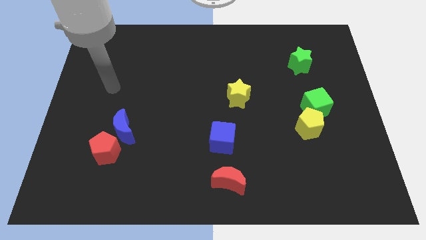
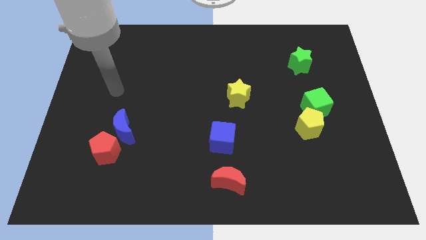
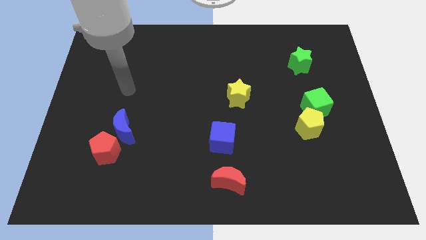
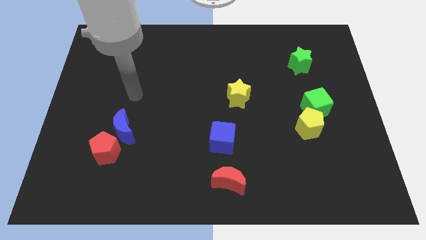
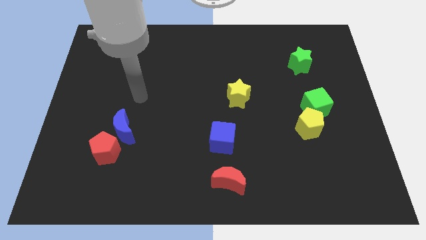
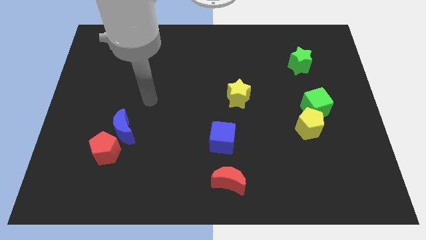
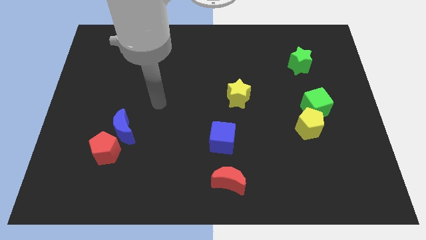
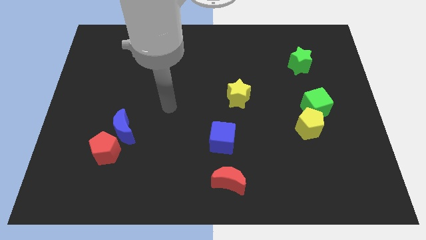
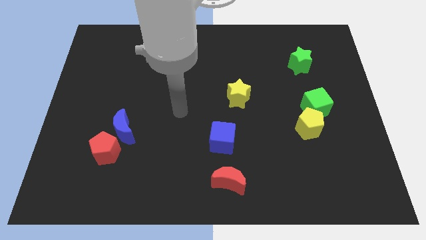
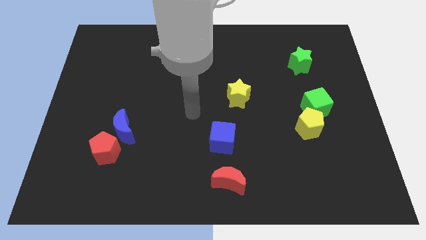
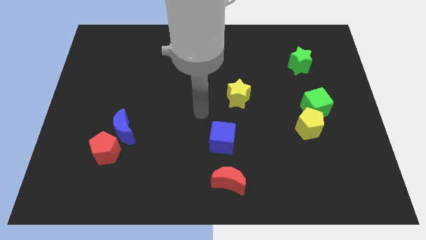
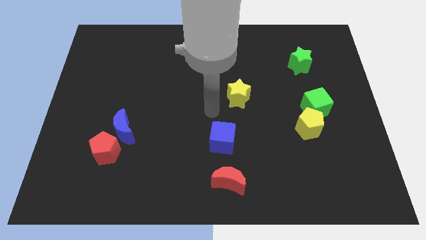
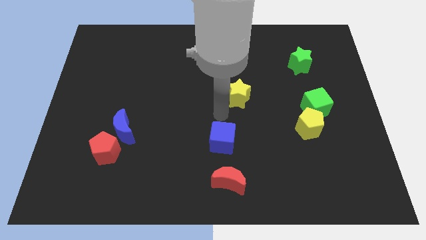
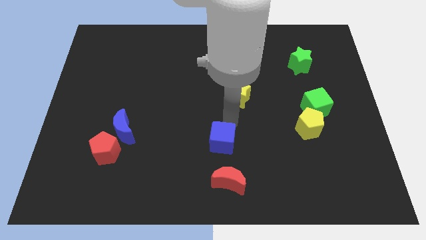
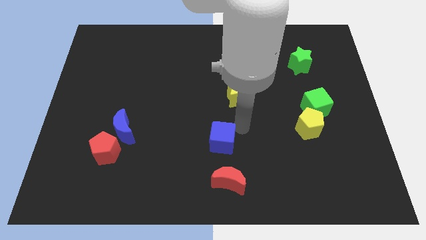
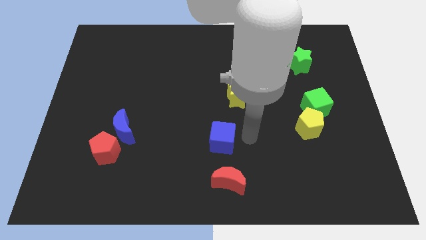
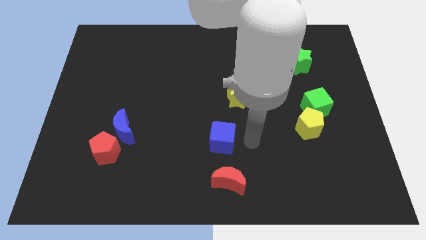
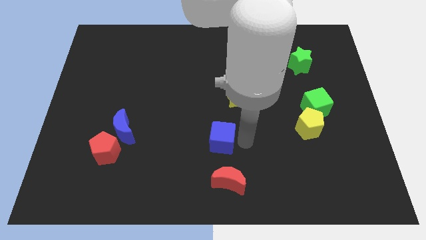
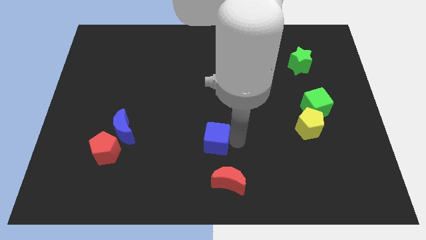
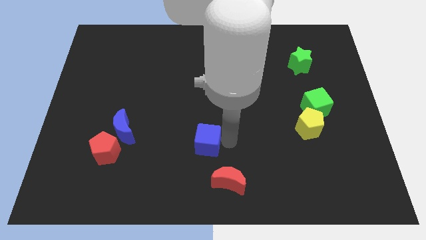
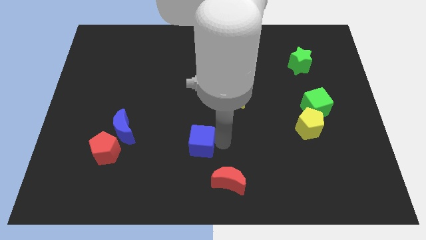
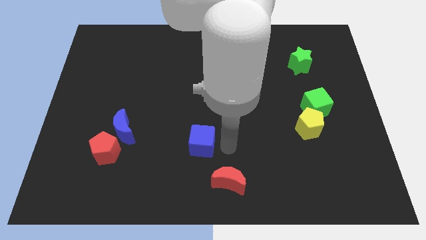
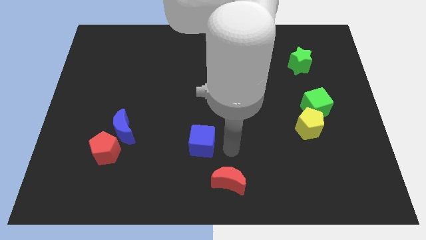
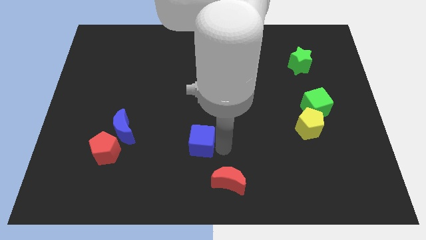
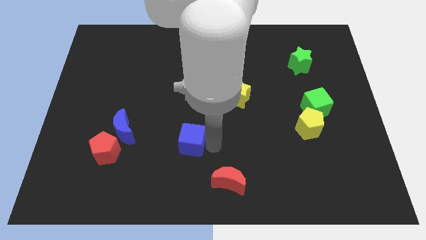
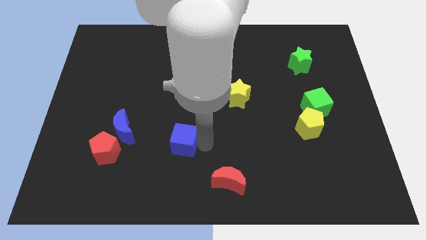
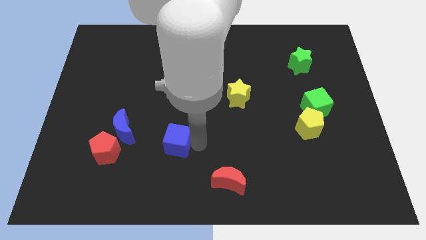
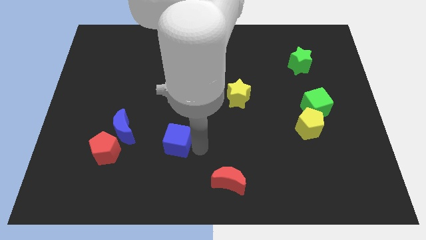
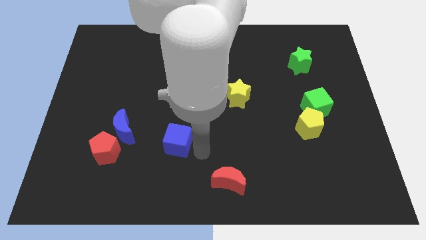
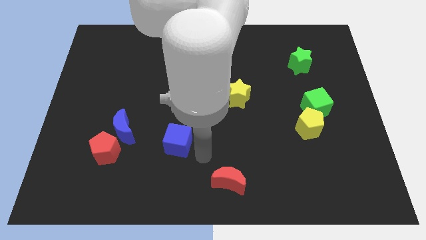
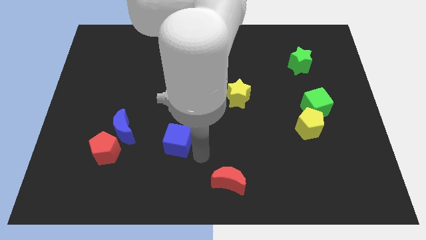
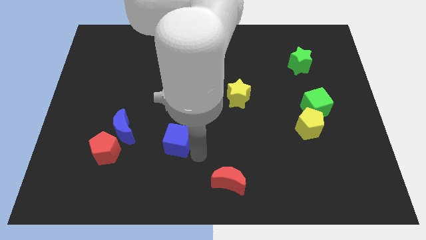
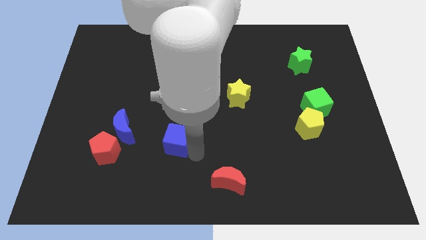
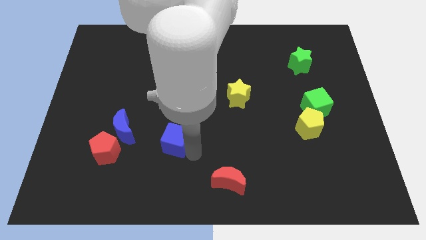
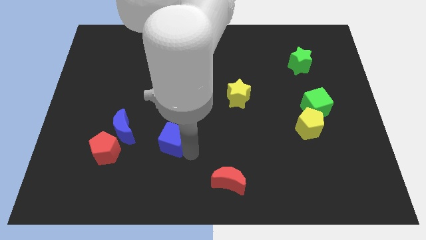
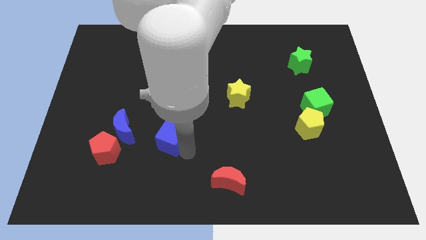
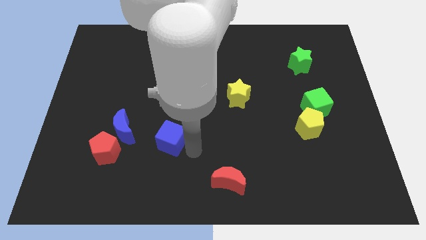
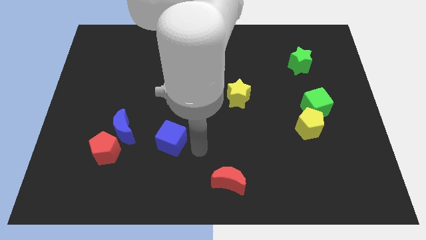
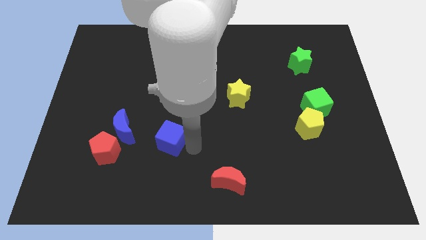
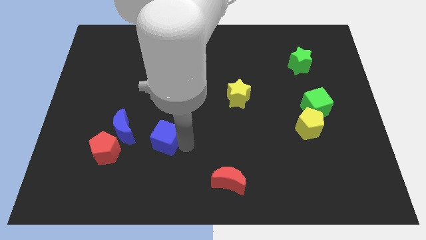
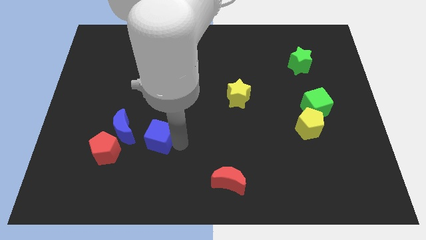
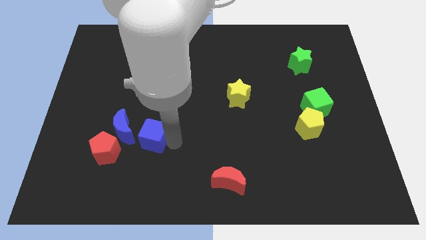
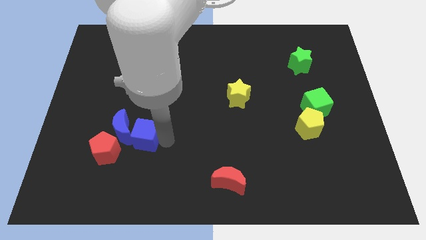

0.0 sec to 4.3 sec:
slide the blue cube close to the blue moon

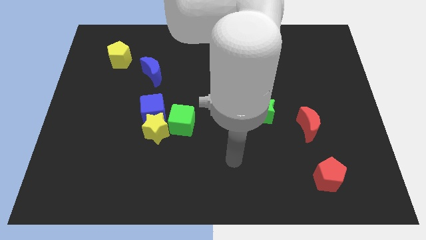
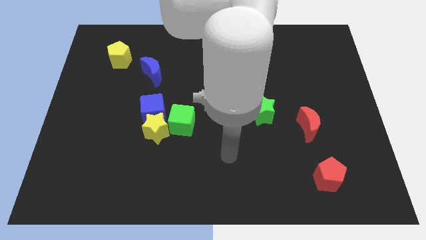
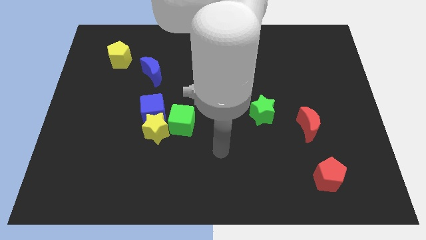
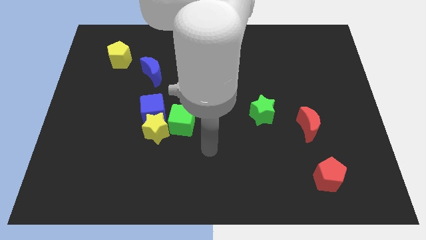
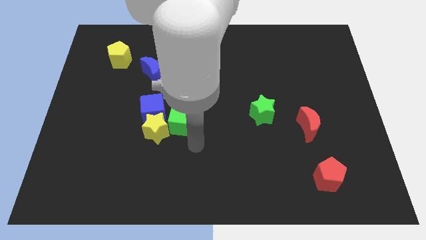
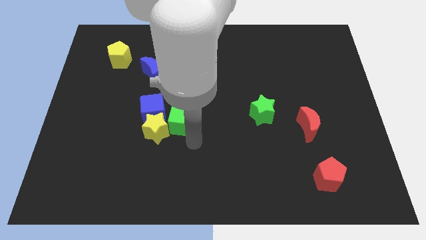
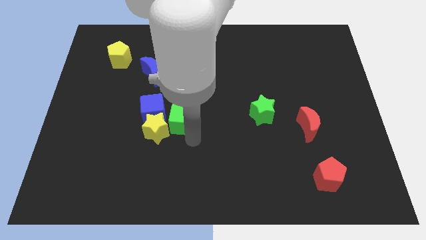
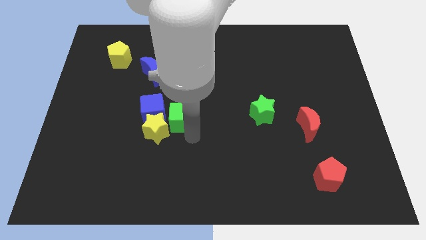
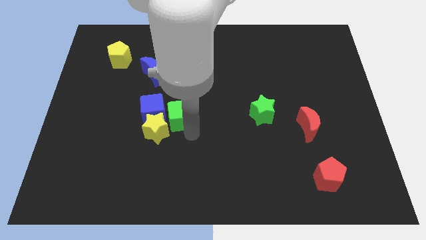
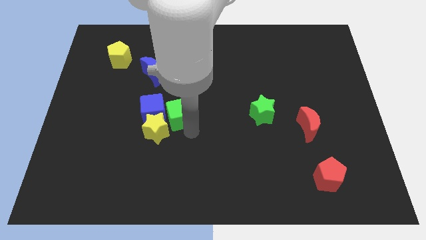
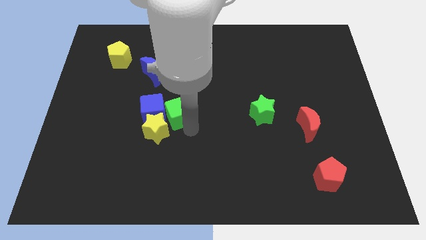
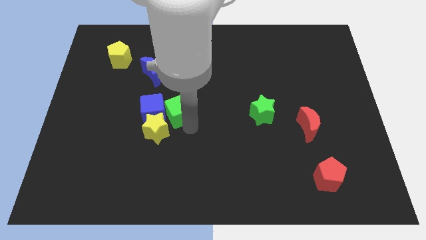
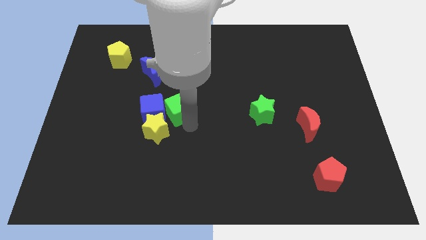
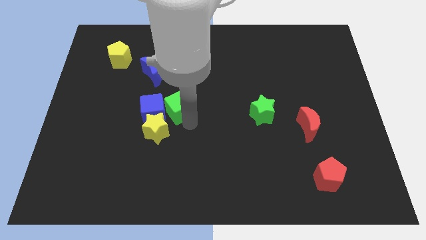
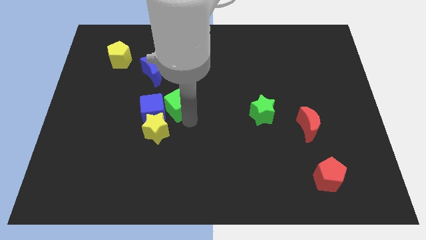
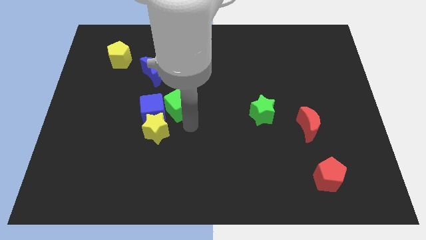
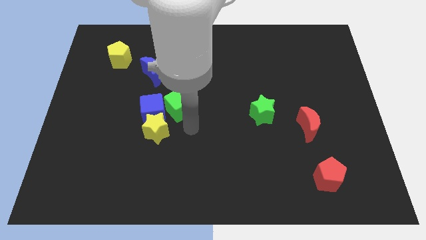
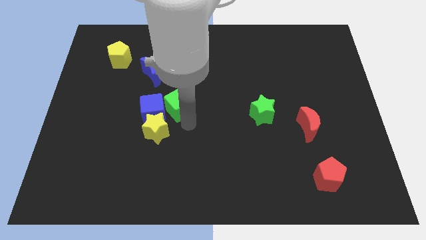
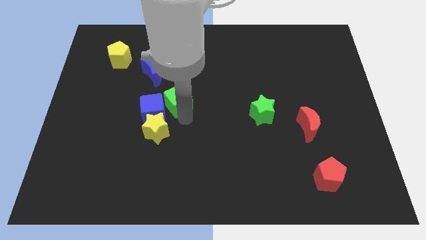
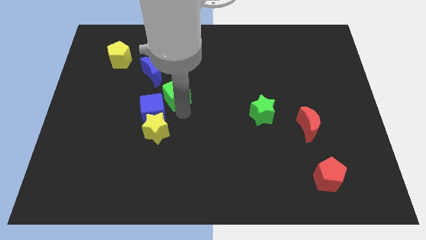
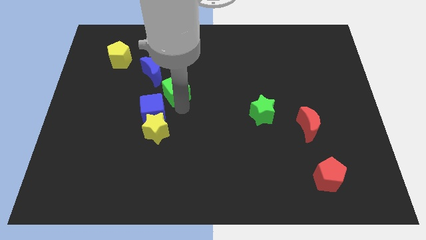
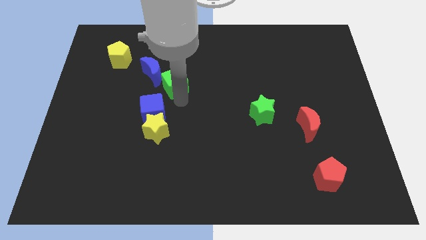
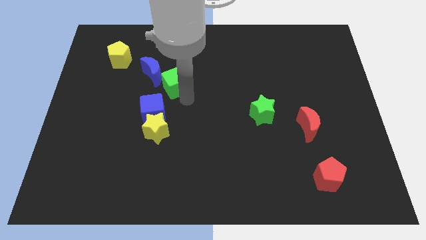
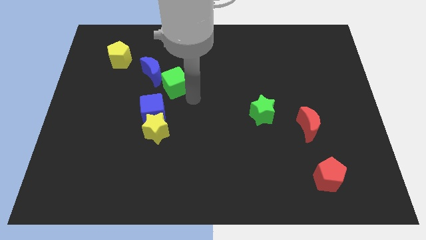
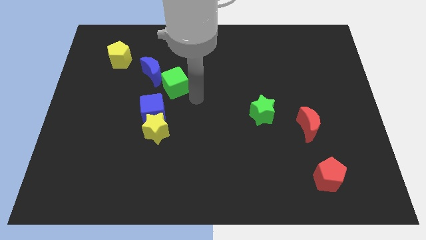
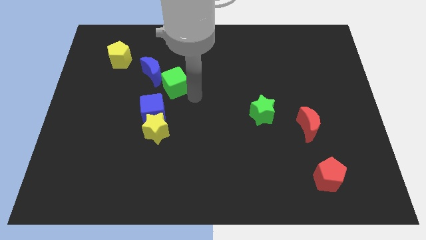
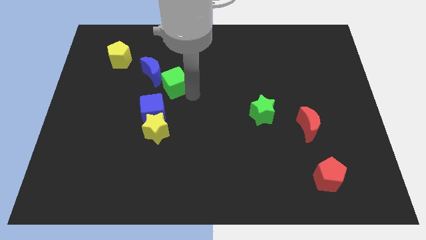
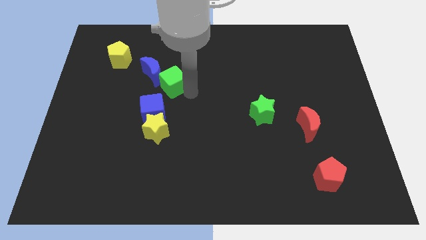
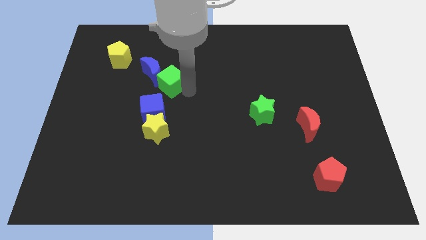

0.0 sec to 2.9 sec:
move the green cube close to the blue moon

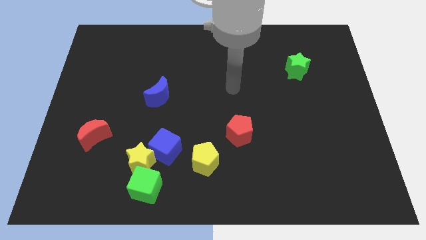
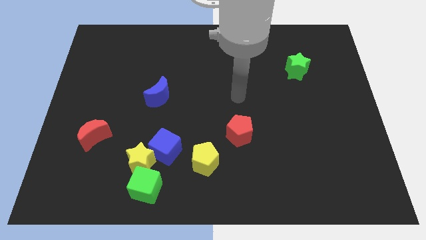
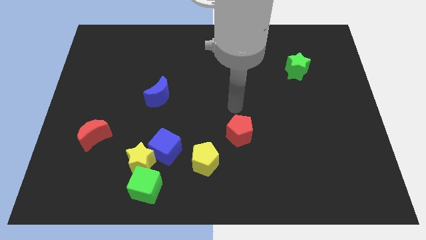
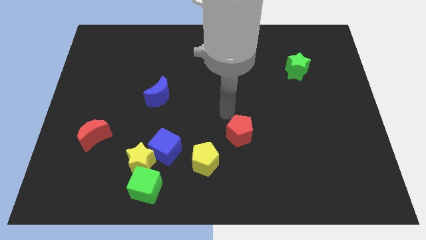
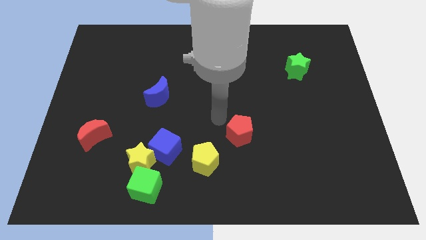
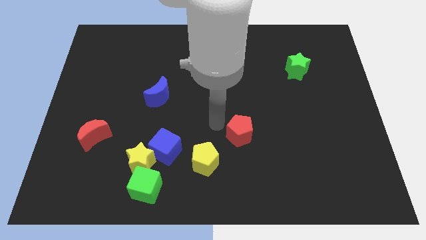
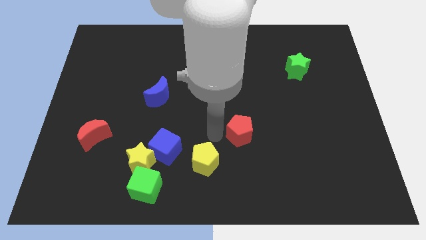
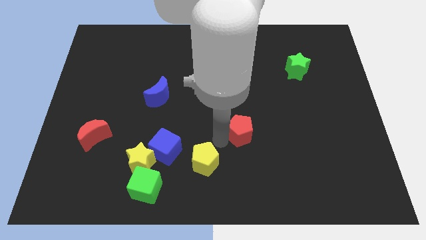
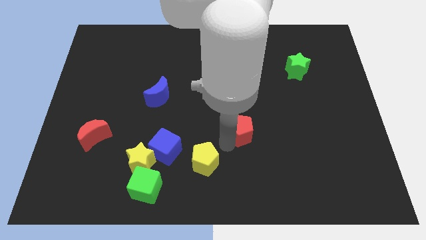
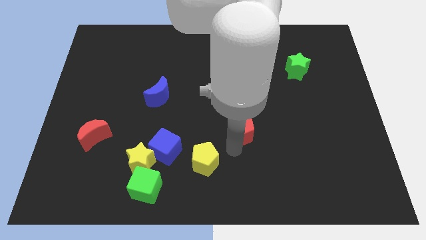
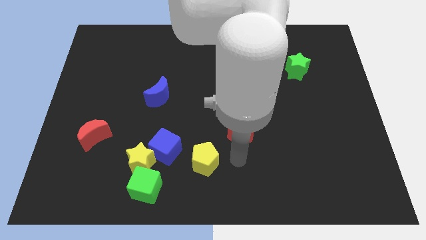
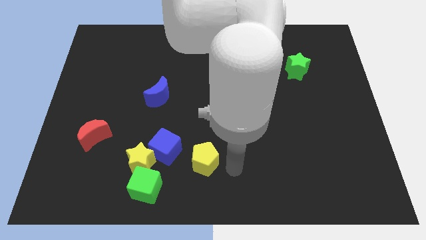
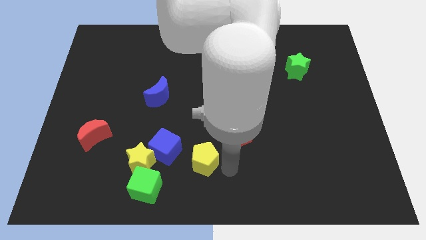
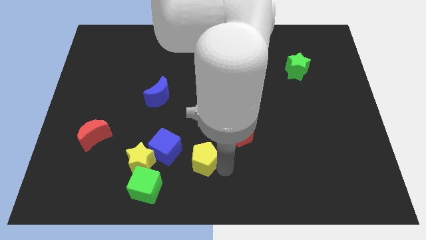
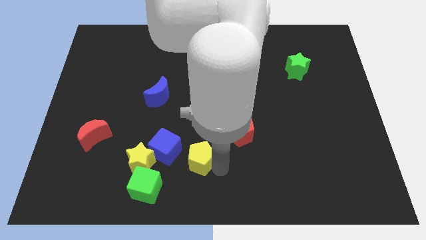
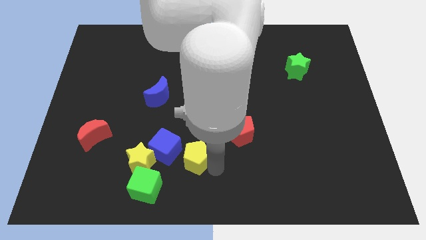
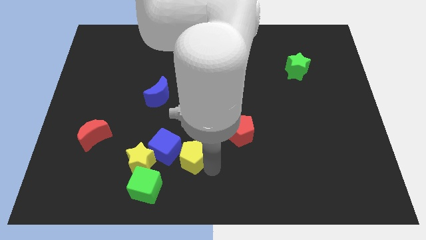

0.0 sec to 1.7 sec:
slide the yellow pentagon next to the blue cube
